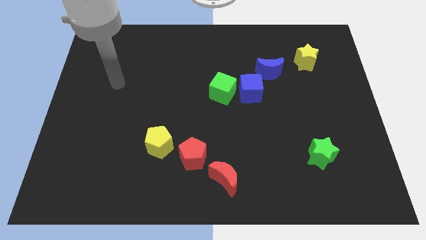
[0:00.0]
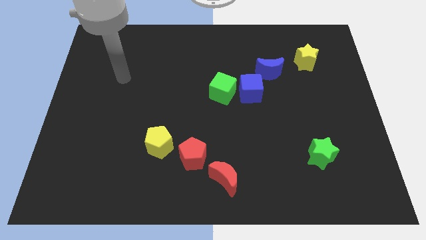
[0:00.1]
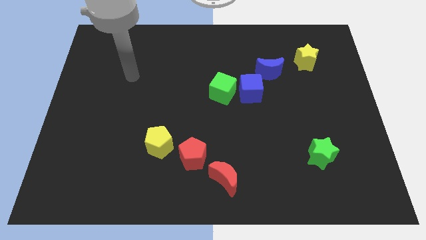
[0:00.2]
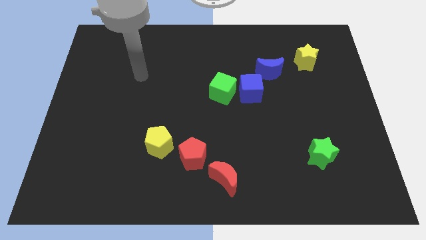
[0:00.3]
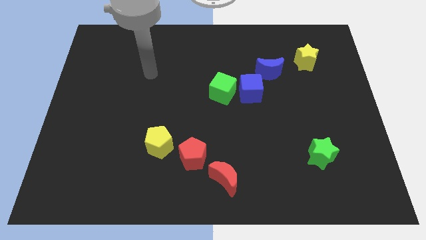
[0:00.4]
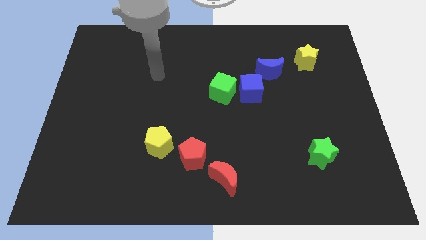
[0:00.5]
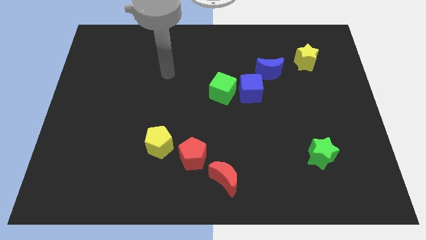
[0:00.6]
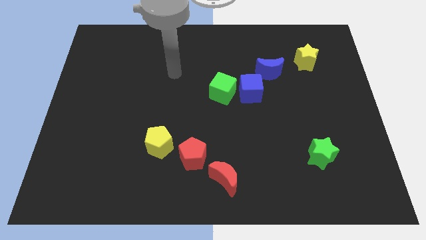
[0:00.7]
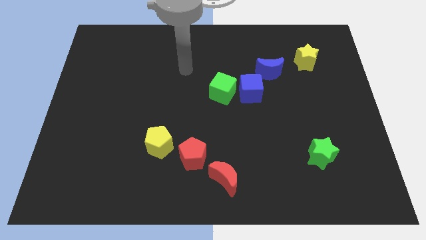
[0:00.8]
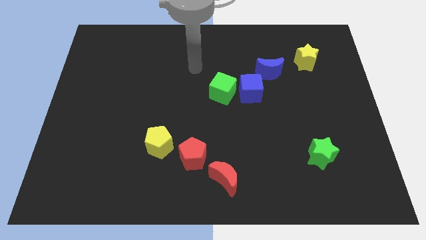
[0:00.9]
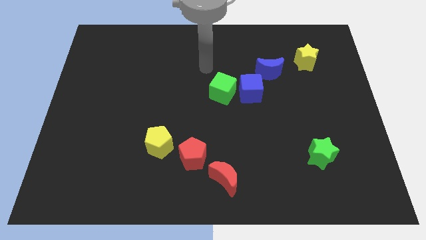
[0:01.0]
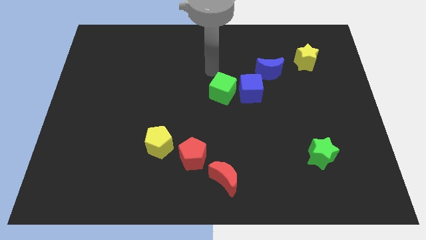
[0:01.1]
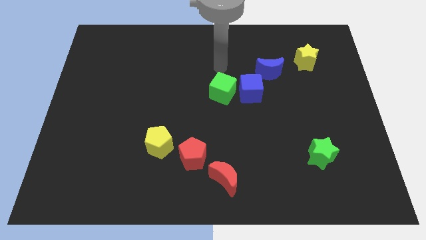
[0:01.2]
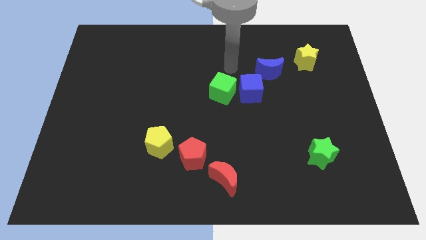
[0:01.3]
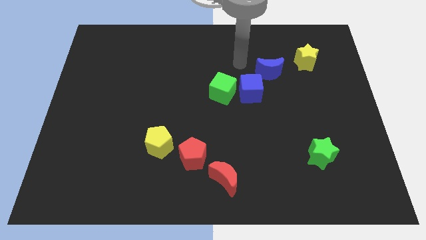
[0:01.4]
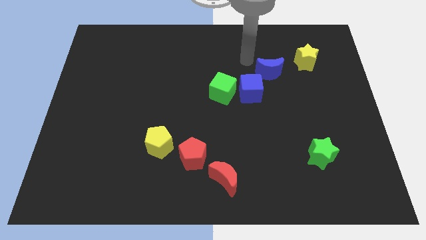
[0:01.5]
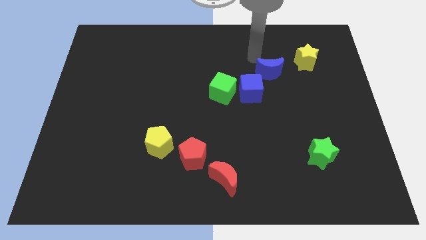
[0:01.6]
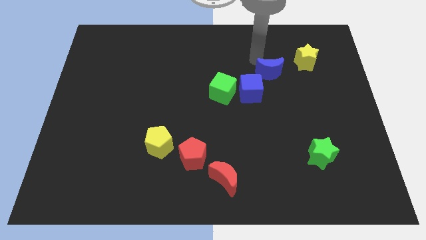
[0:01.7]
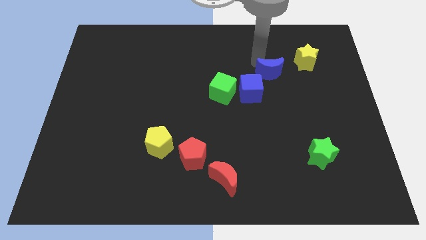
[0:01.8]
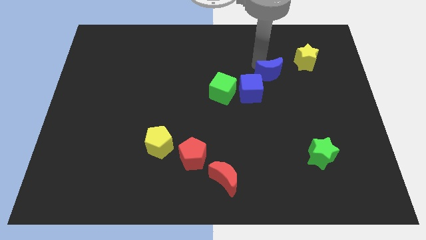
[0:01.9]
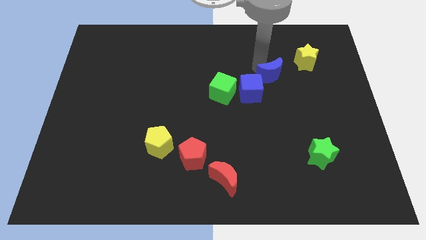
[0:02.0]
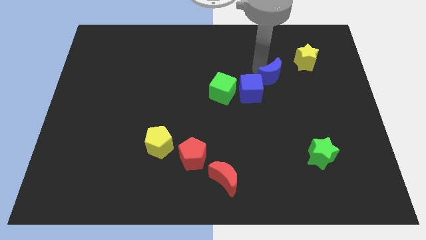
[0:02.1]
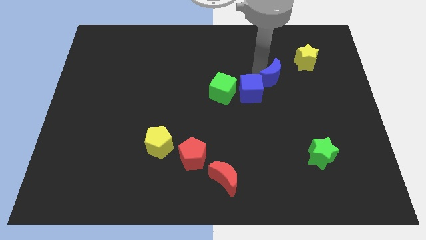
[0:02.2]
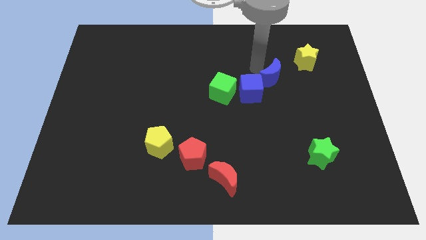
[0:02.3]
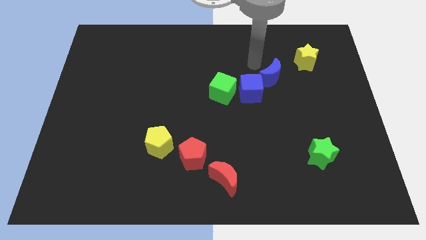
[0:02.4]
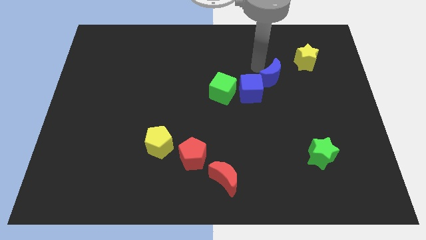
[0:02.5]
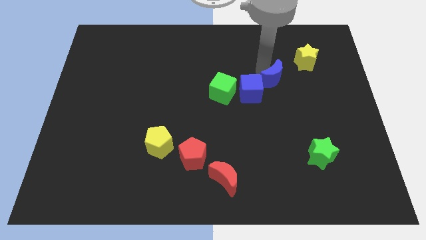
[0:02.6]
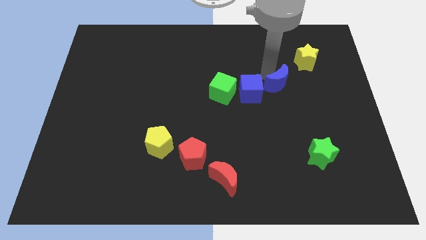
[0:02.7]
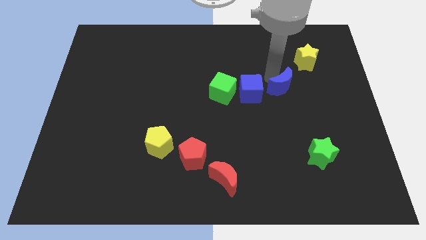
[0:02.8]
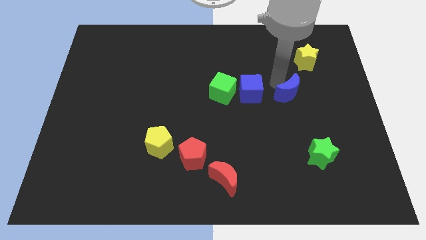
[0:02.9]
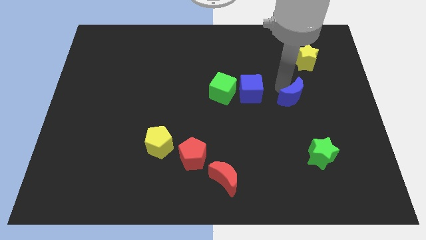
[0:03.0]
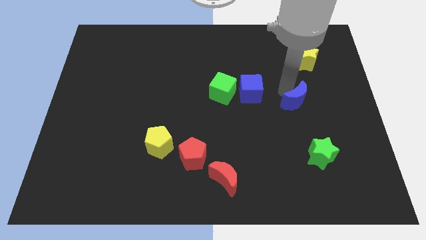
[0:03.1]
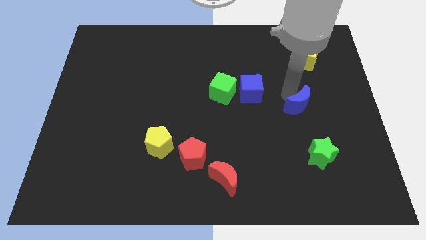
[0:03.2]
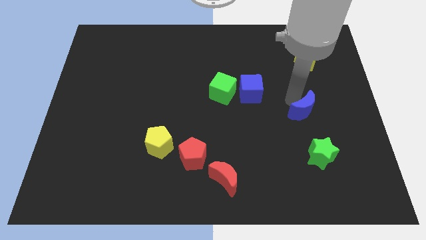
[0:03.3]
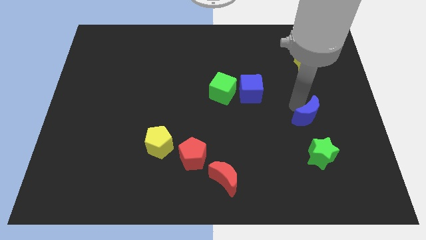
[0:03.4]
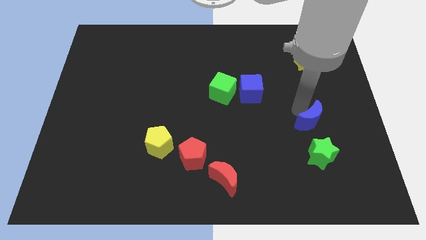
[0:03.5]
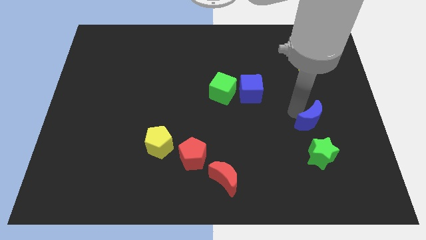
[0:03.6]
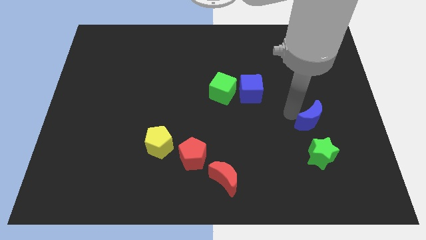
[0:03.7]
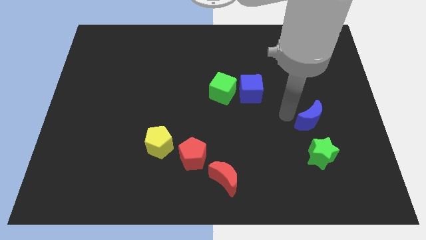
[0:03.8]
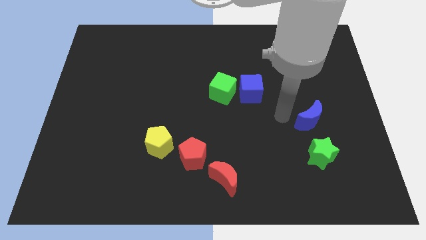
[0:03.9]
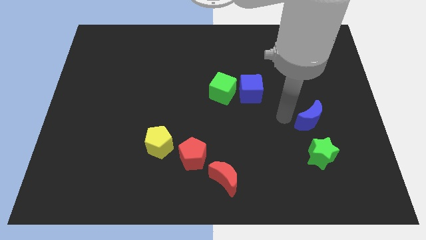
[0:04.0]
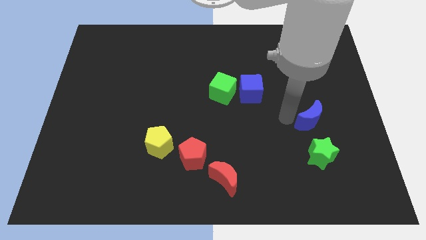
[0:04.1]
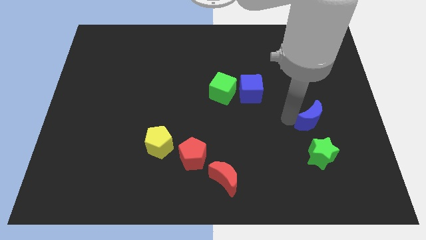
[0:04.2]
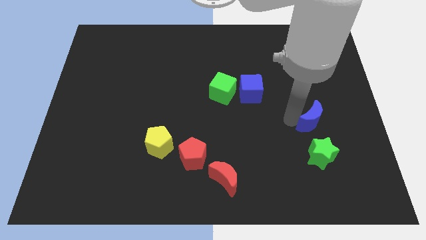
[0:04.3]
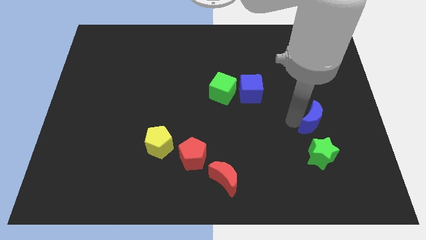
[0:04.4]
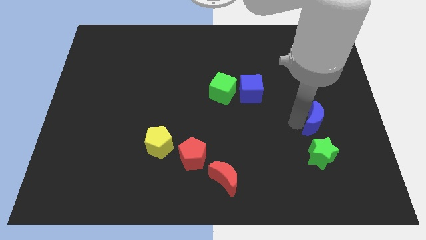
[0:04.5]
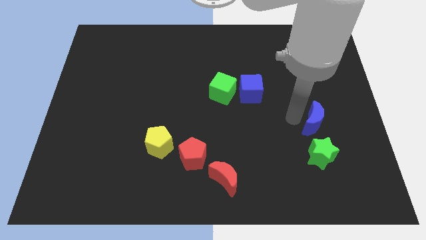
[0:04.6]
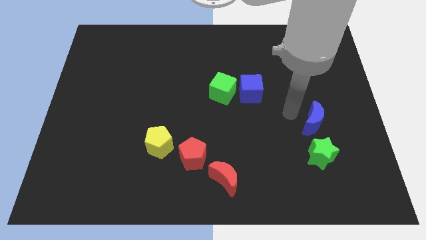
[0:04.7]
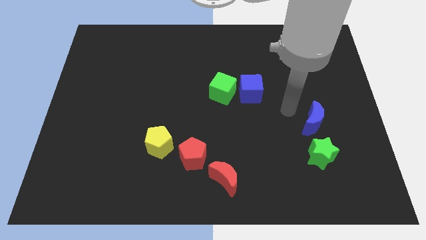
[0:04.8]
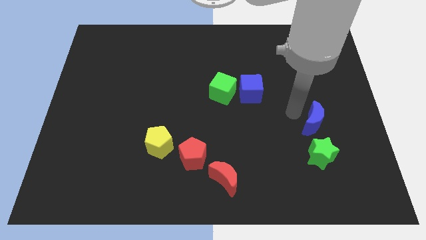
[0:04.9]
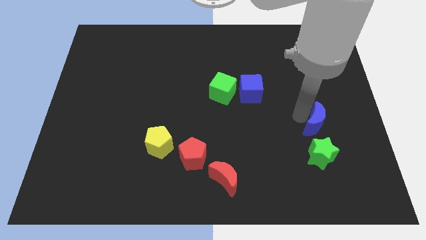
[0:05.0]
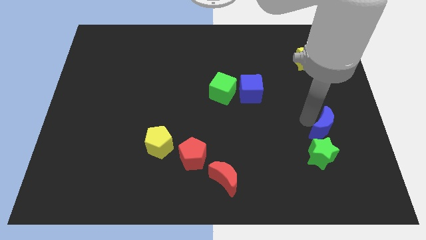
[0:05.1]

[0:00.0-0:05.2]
put the blue moon to the top right of the green star

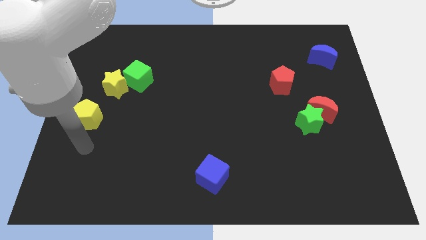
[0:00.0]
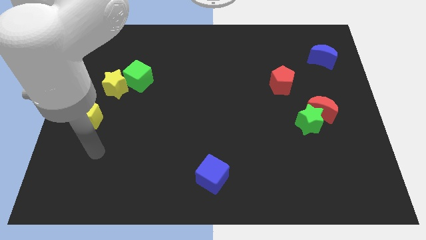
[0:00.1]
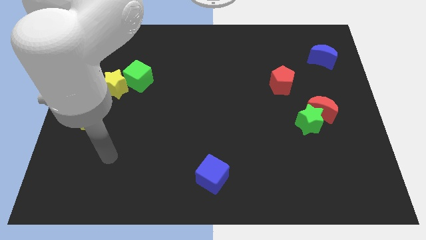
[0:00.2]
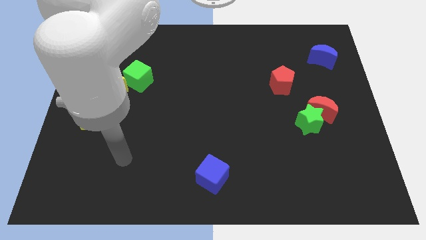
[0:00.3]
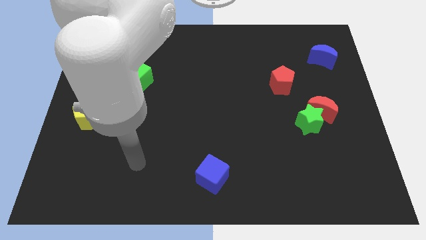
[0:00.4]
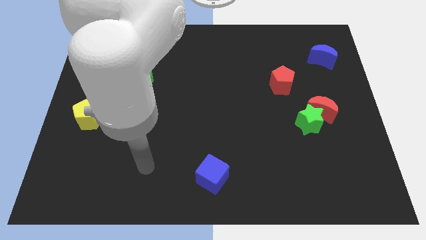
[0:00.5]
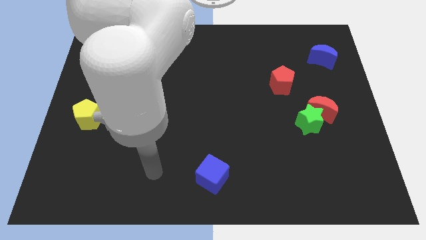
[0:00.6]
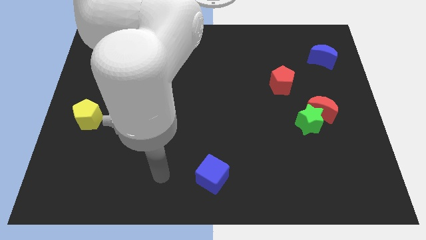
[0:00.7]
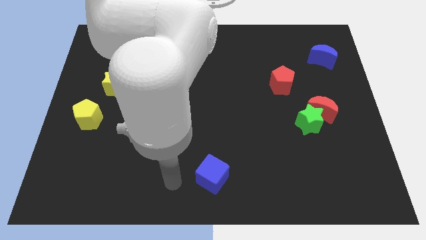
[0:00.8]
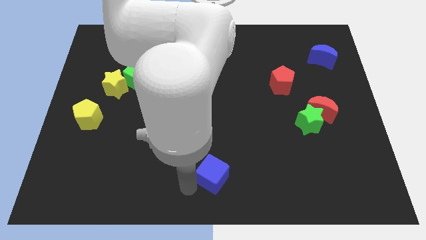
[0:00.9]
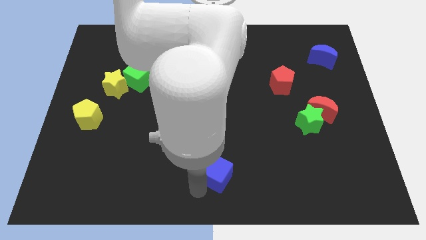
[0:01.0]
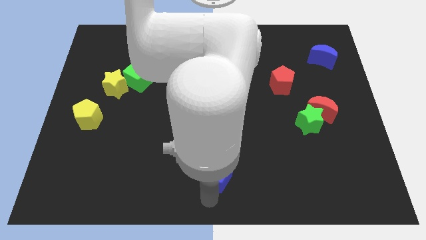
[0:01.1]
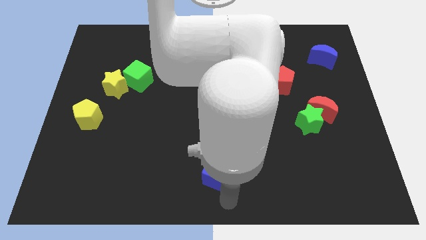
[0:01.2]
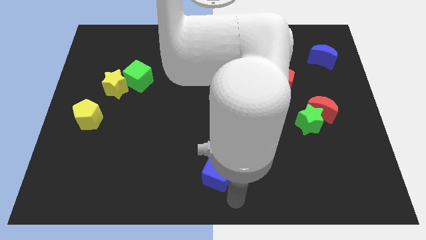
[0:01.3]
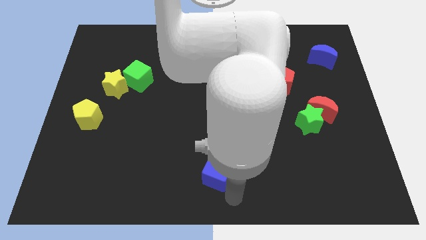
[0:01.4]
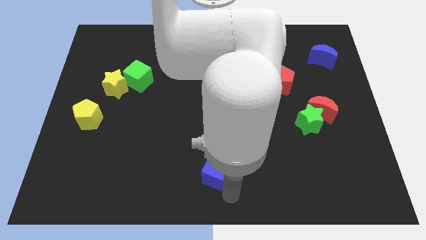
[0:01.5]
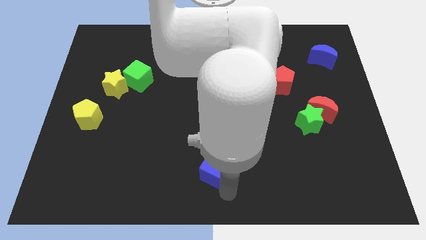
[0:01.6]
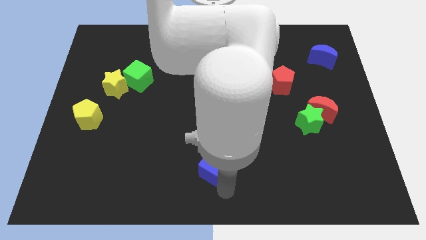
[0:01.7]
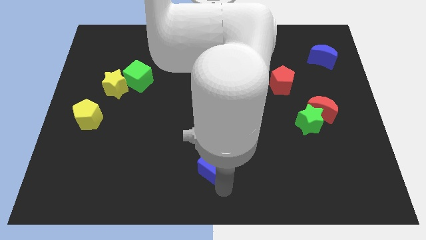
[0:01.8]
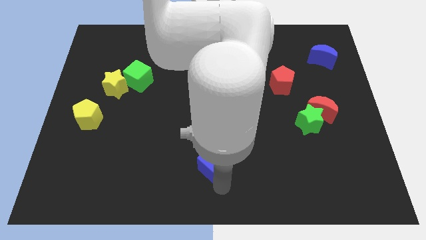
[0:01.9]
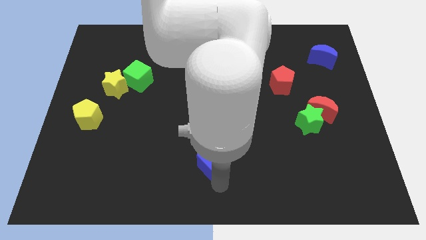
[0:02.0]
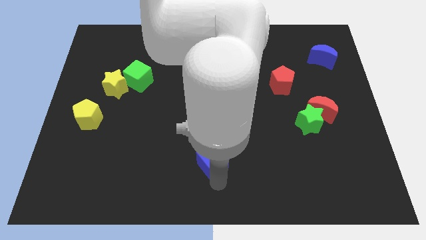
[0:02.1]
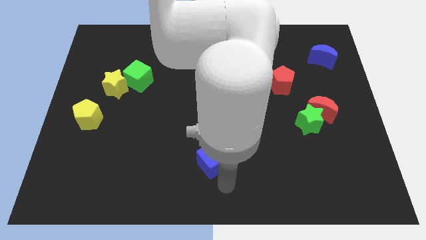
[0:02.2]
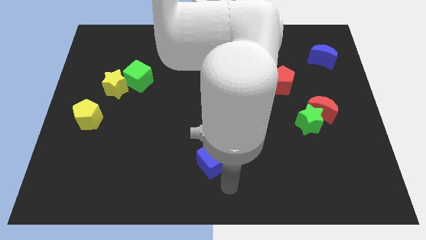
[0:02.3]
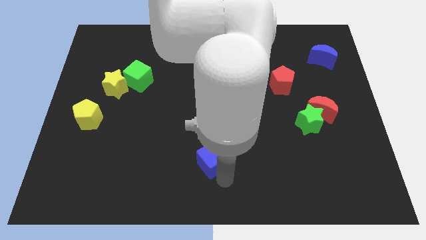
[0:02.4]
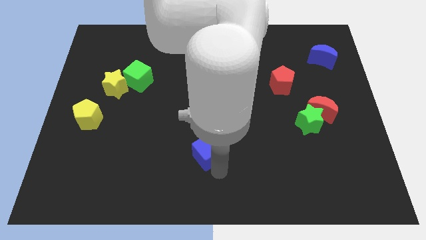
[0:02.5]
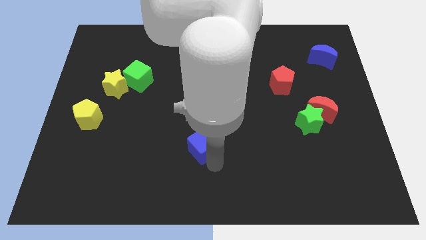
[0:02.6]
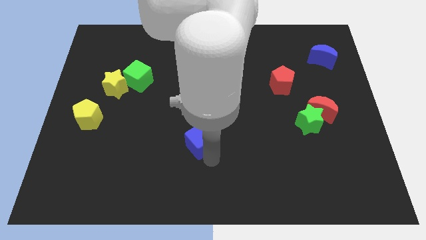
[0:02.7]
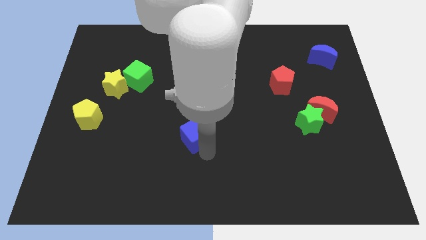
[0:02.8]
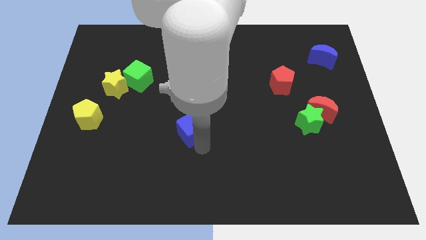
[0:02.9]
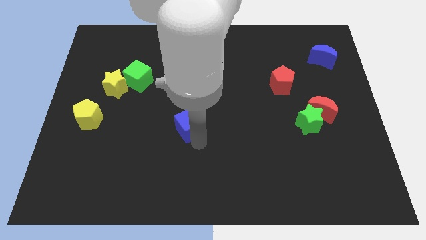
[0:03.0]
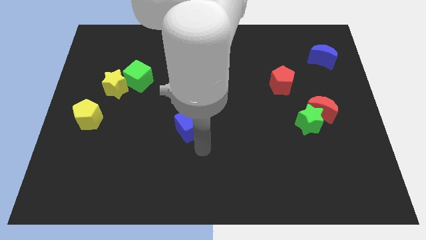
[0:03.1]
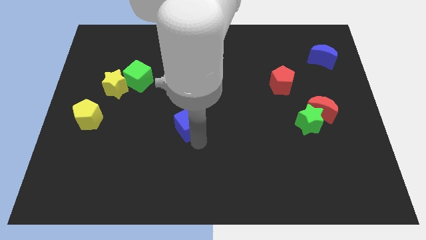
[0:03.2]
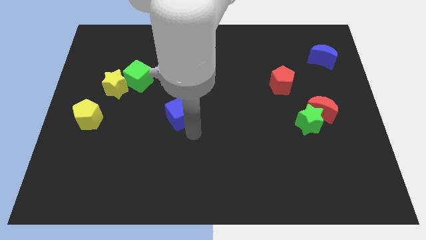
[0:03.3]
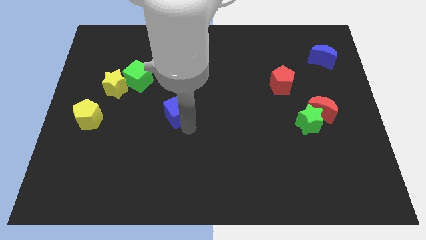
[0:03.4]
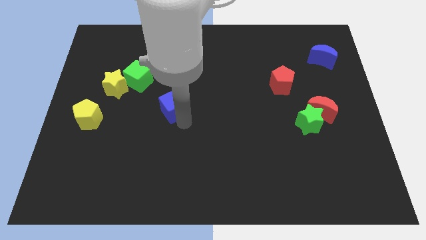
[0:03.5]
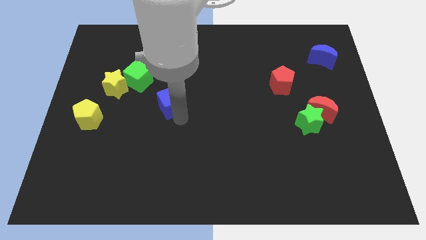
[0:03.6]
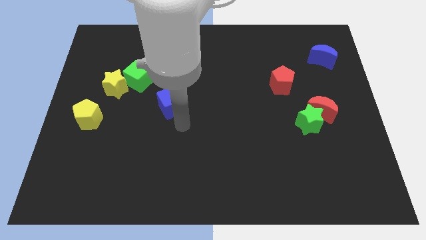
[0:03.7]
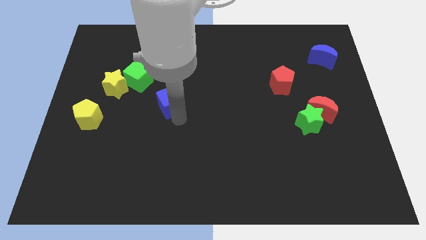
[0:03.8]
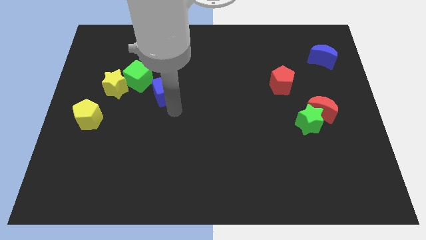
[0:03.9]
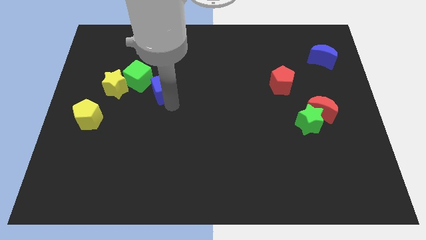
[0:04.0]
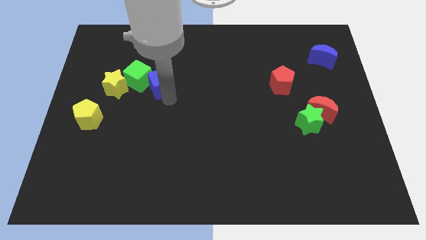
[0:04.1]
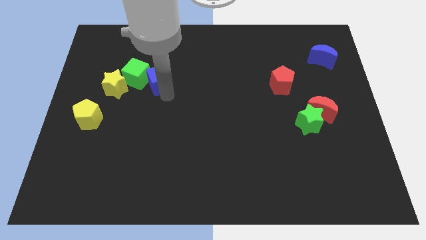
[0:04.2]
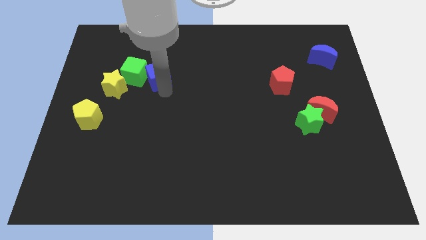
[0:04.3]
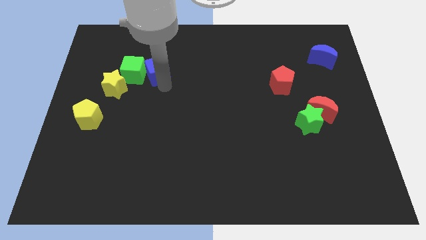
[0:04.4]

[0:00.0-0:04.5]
push the blue cube to the top right of the yellow star
